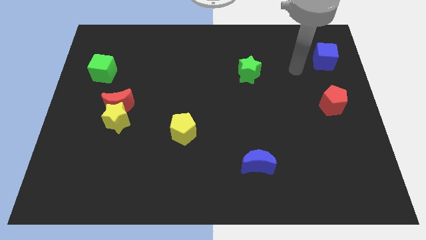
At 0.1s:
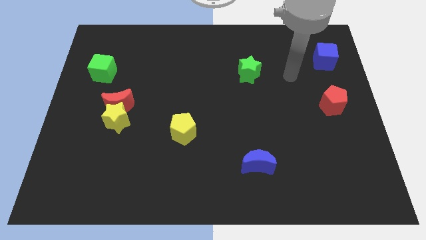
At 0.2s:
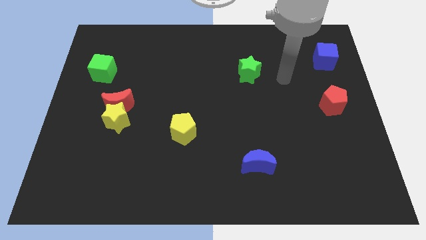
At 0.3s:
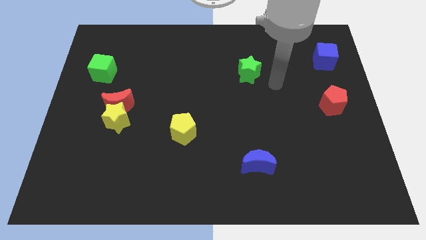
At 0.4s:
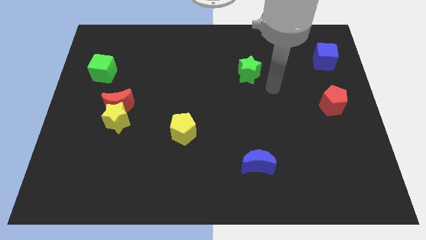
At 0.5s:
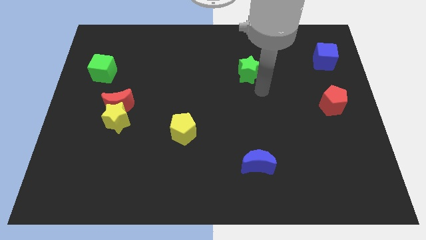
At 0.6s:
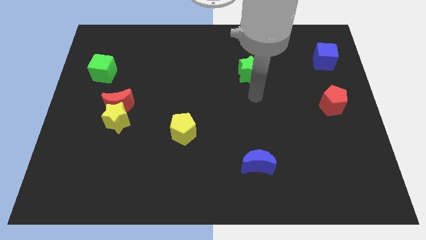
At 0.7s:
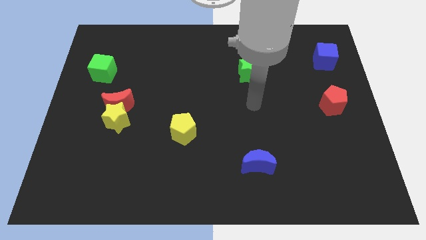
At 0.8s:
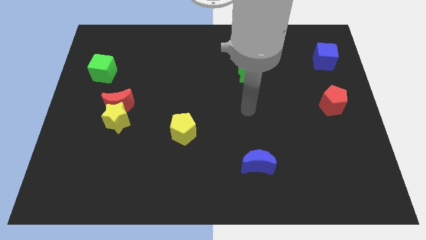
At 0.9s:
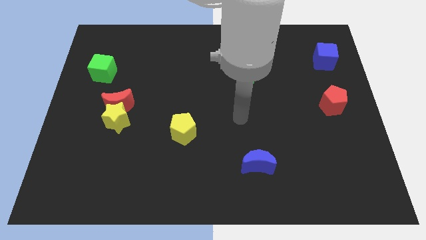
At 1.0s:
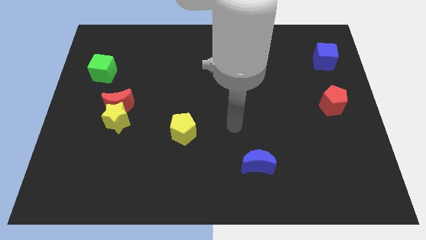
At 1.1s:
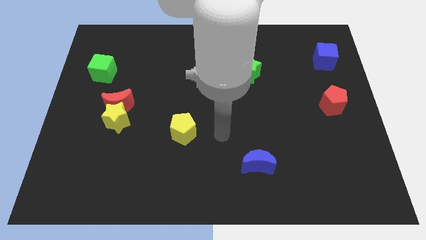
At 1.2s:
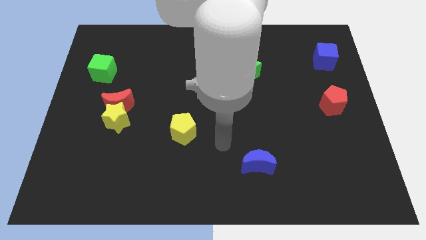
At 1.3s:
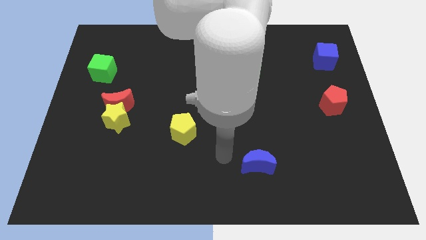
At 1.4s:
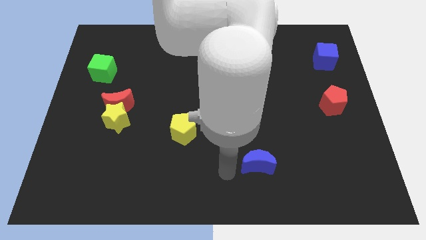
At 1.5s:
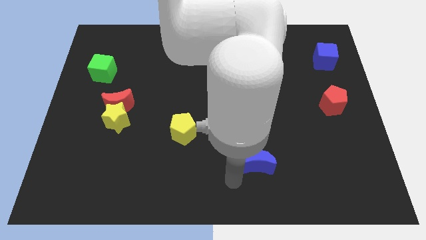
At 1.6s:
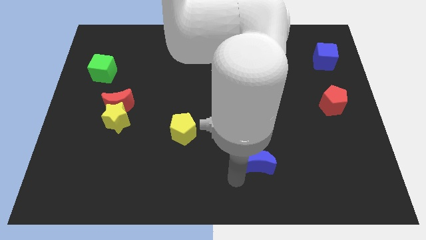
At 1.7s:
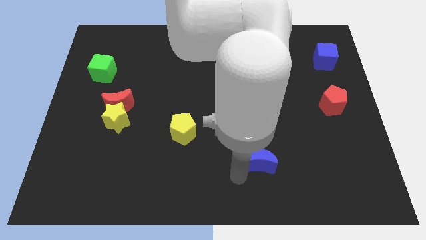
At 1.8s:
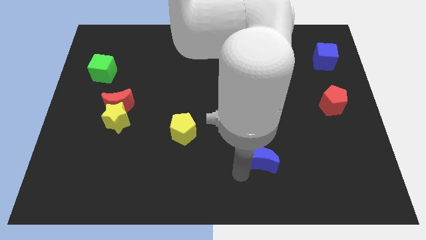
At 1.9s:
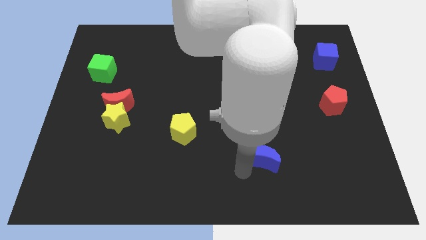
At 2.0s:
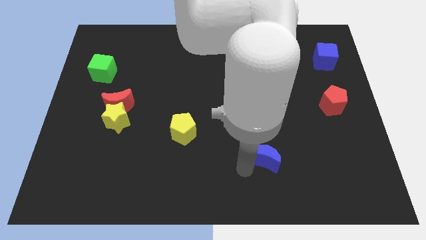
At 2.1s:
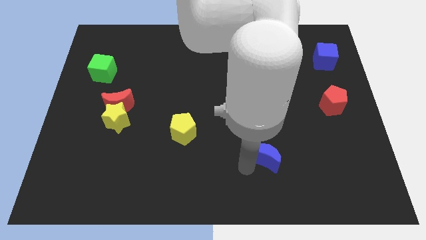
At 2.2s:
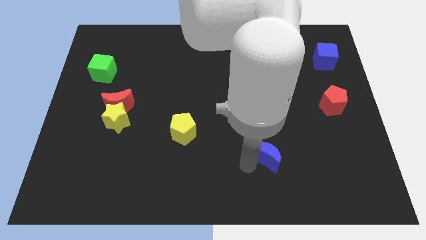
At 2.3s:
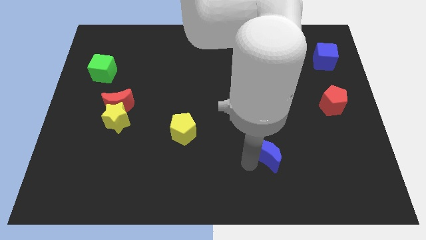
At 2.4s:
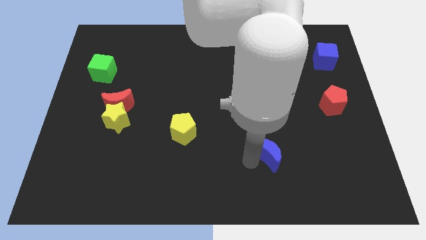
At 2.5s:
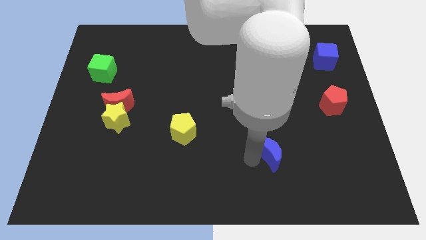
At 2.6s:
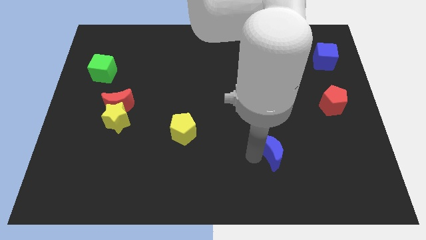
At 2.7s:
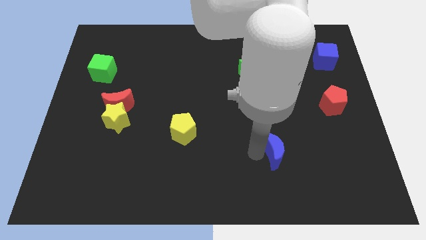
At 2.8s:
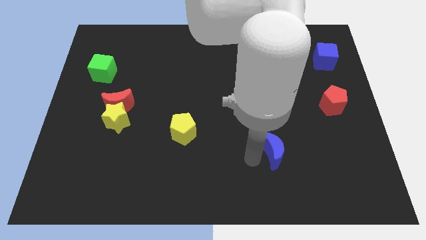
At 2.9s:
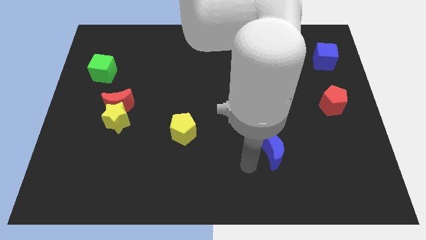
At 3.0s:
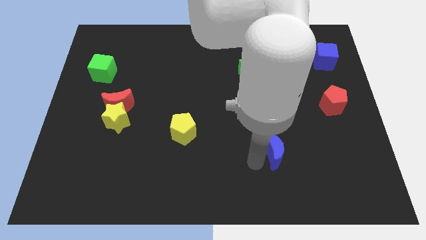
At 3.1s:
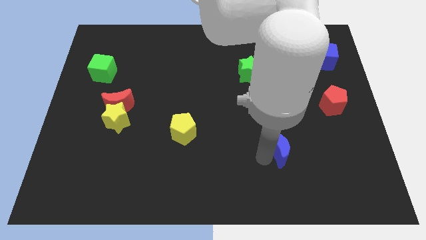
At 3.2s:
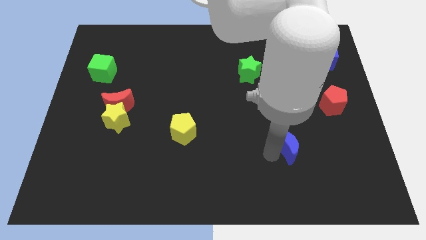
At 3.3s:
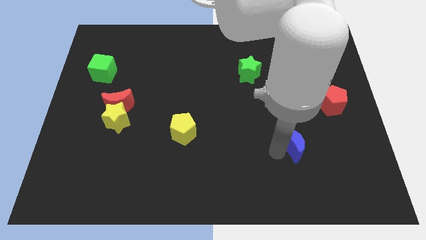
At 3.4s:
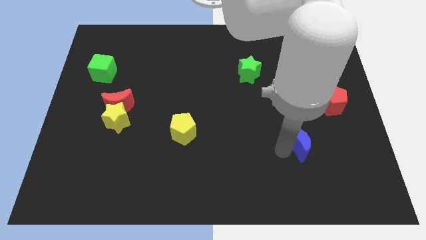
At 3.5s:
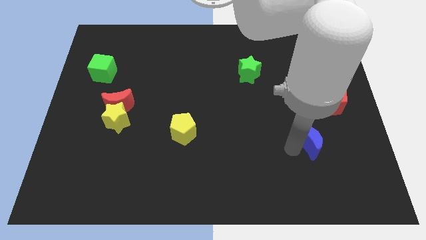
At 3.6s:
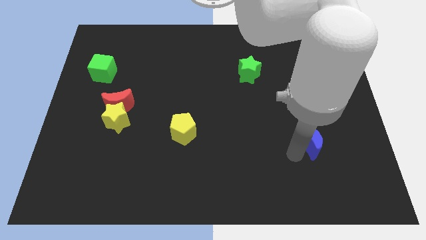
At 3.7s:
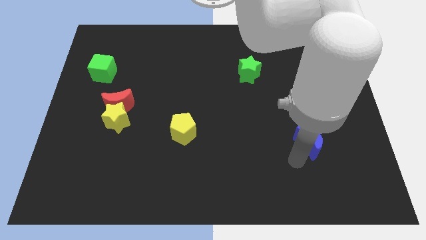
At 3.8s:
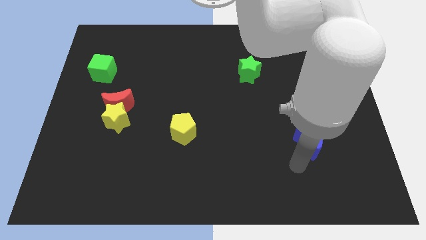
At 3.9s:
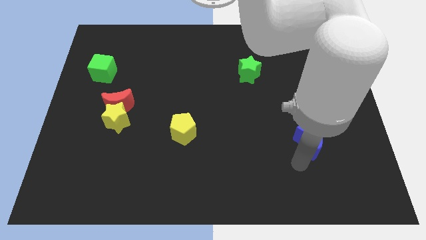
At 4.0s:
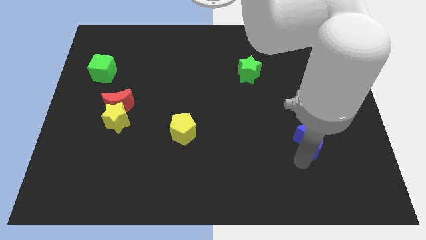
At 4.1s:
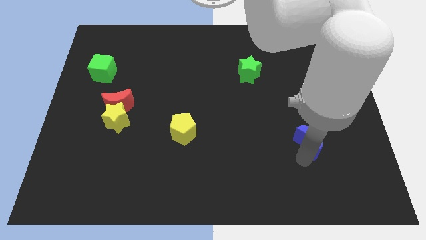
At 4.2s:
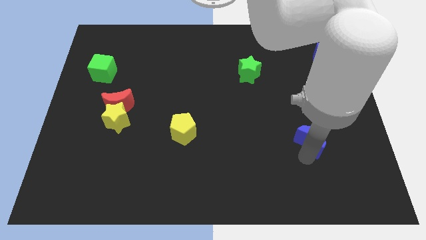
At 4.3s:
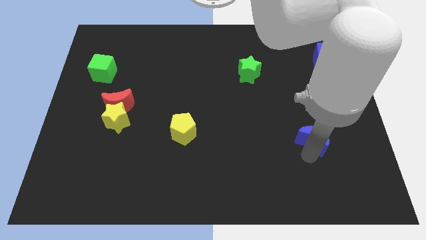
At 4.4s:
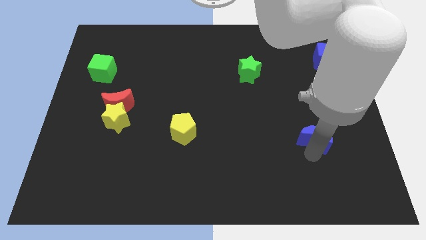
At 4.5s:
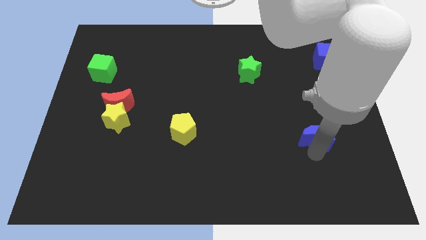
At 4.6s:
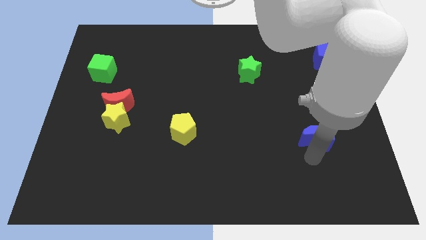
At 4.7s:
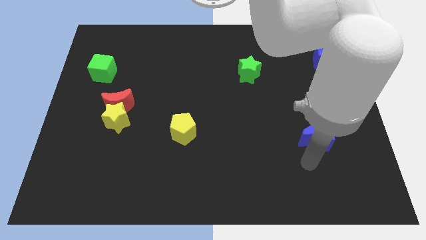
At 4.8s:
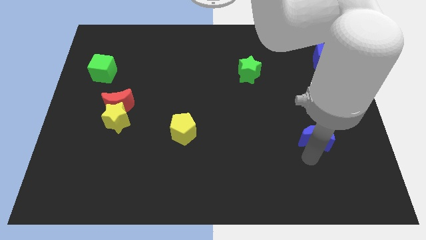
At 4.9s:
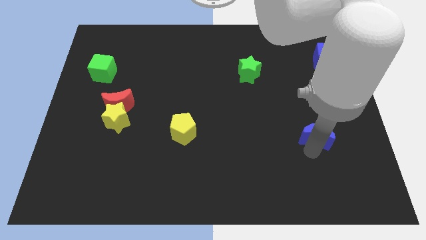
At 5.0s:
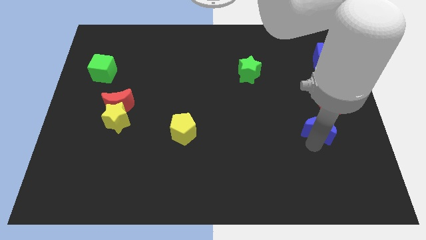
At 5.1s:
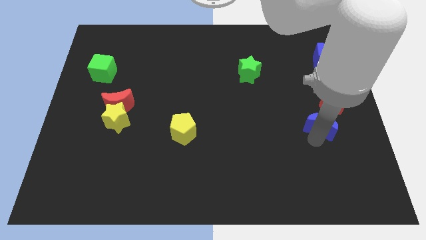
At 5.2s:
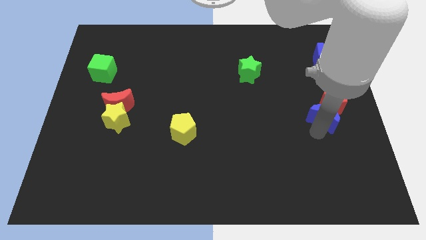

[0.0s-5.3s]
move the blue moon next to the red pentagon

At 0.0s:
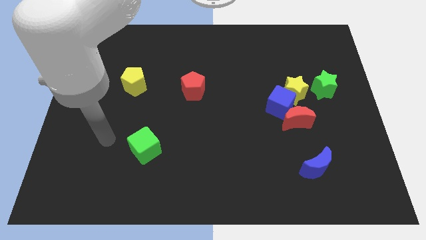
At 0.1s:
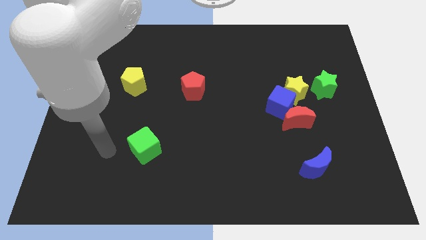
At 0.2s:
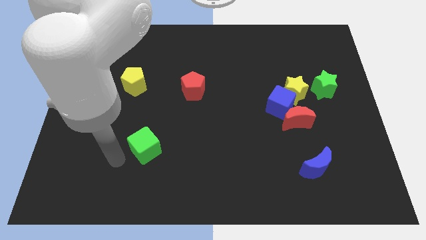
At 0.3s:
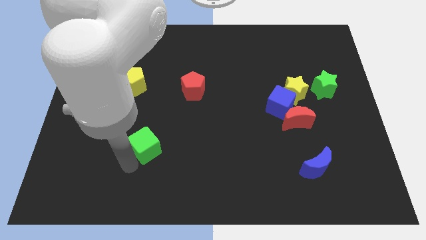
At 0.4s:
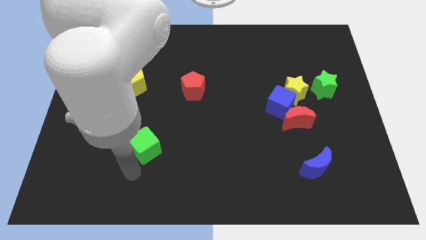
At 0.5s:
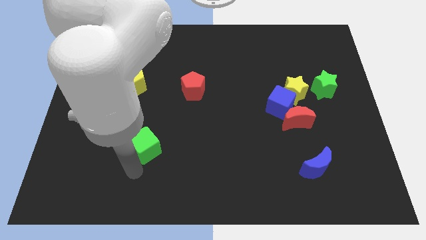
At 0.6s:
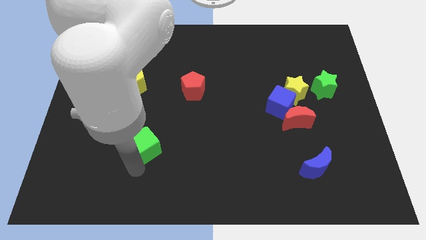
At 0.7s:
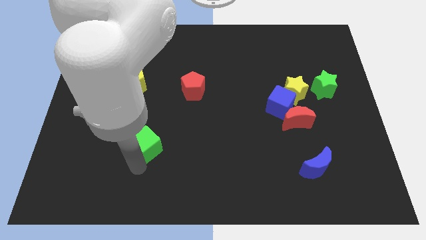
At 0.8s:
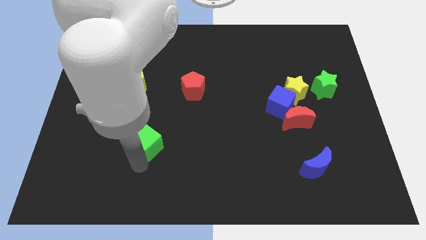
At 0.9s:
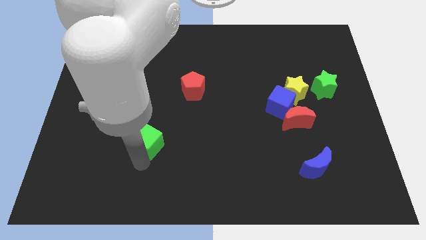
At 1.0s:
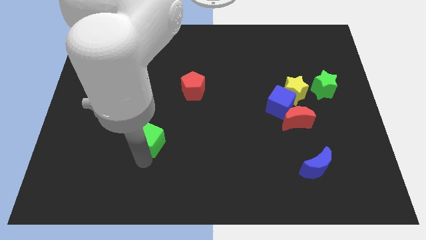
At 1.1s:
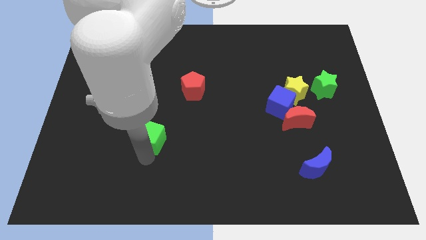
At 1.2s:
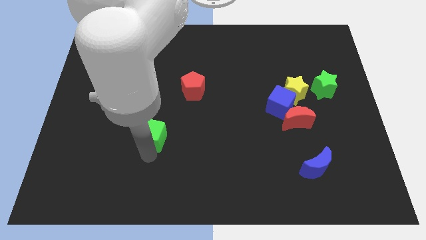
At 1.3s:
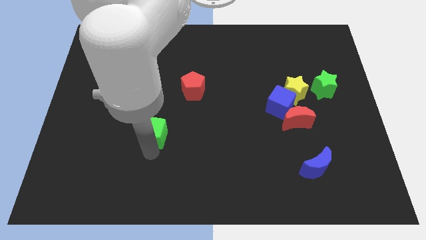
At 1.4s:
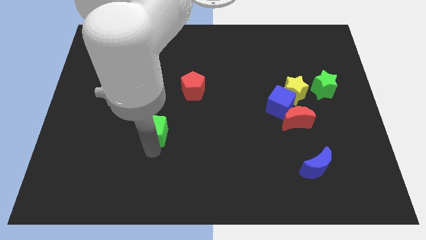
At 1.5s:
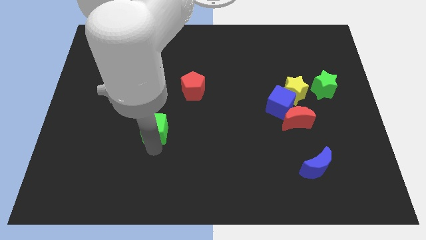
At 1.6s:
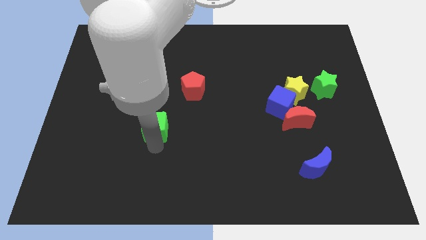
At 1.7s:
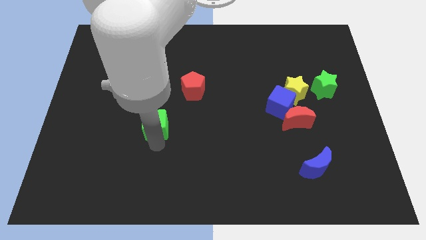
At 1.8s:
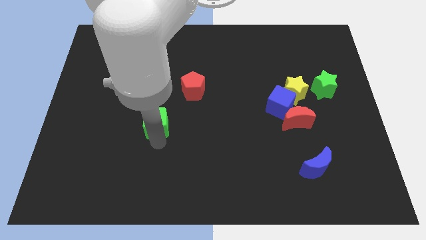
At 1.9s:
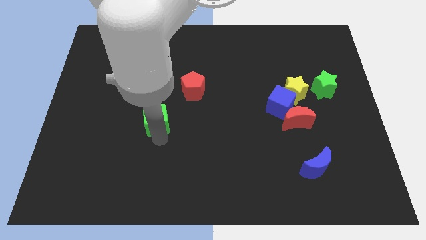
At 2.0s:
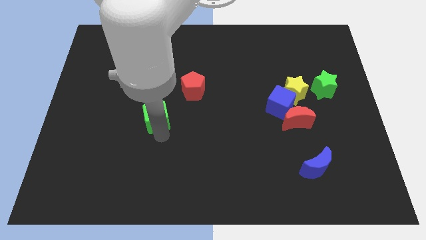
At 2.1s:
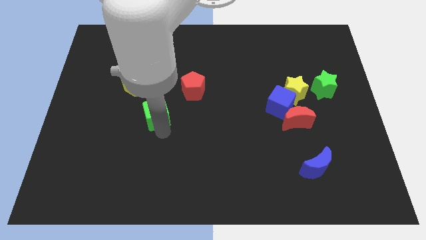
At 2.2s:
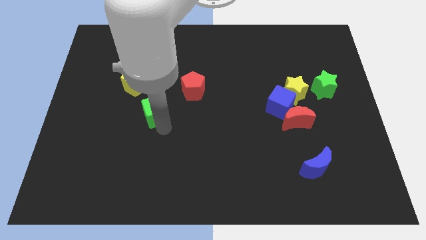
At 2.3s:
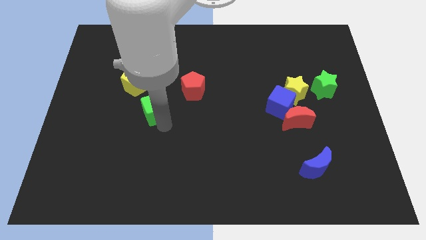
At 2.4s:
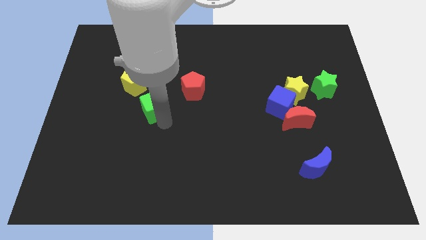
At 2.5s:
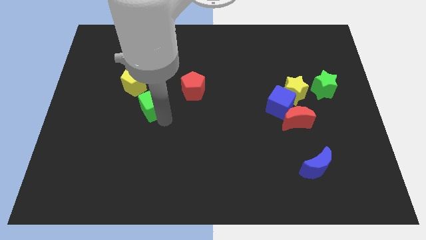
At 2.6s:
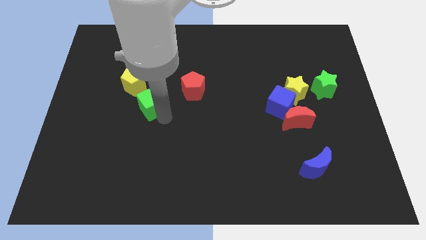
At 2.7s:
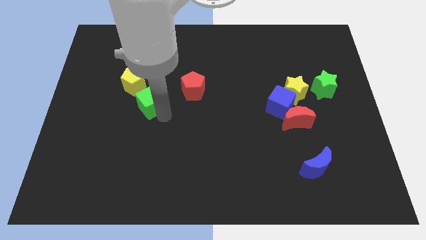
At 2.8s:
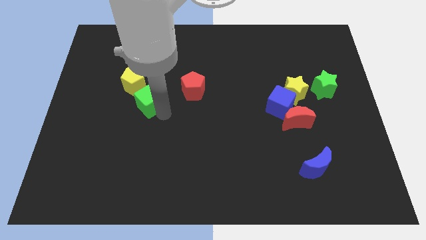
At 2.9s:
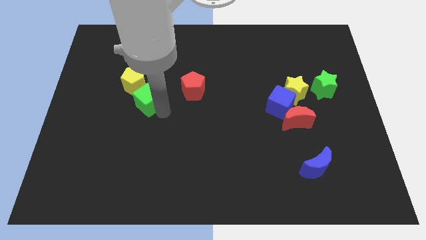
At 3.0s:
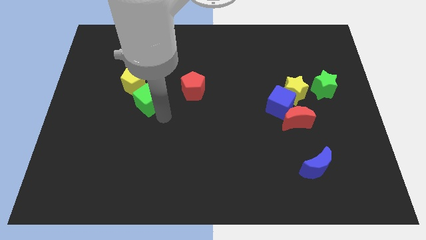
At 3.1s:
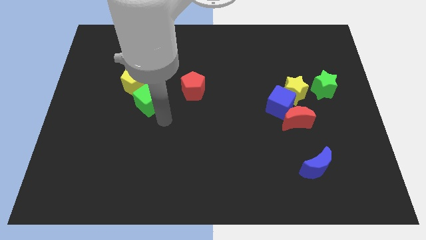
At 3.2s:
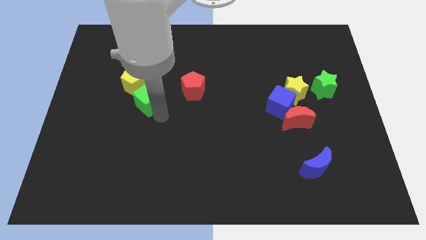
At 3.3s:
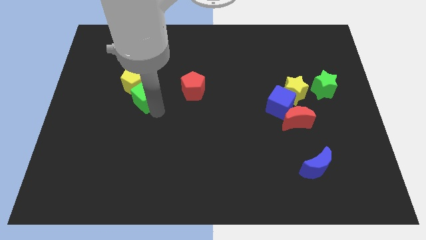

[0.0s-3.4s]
move the green cube towards the yellow pentagon
